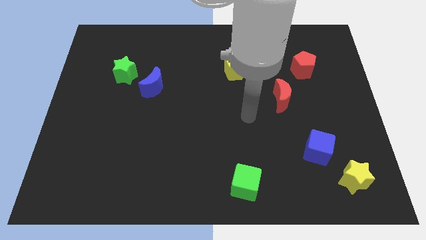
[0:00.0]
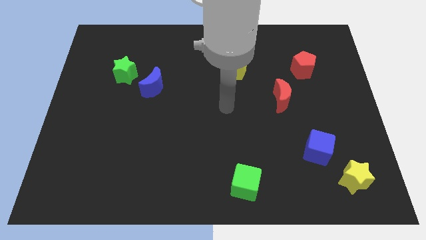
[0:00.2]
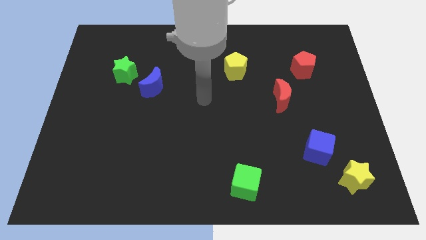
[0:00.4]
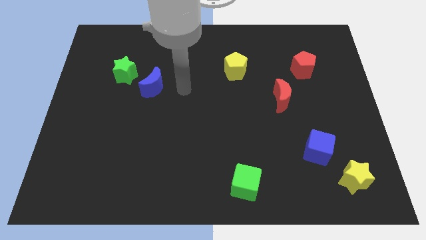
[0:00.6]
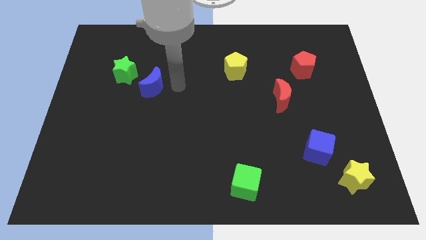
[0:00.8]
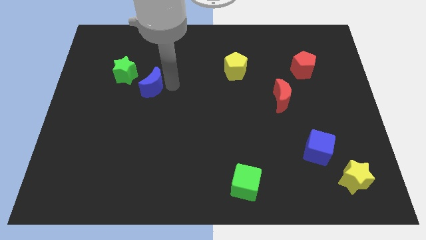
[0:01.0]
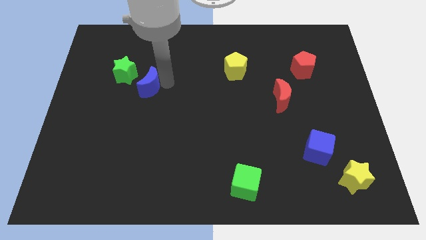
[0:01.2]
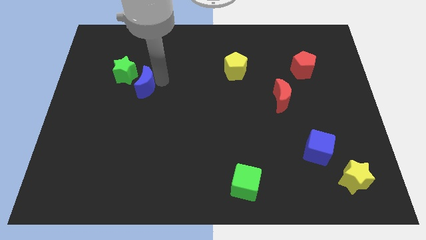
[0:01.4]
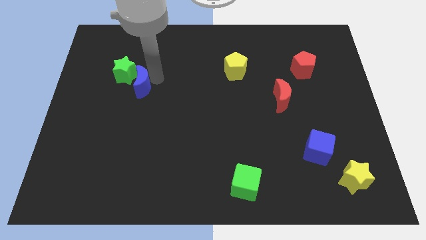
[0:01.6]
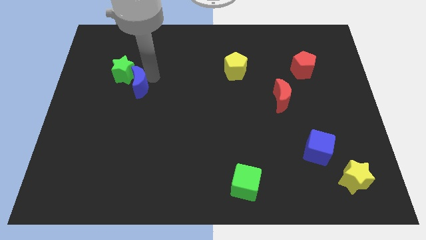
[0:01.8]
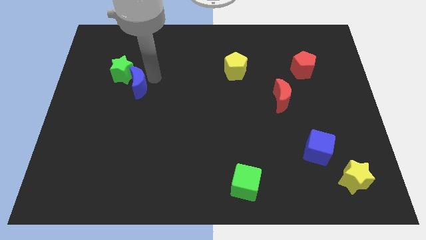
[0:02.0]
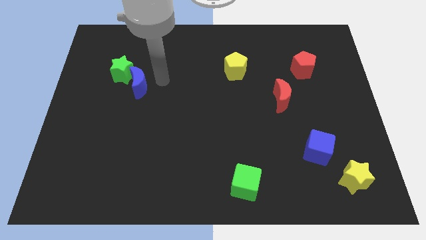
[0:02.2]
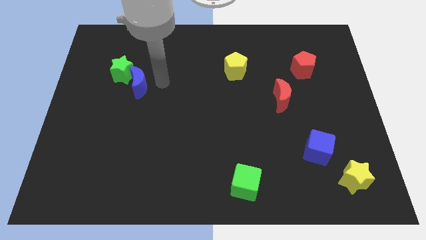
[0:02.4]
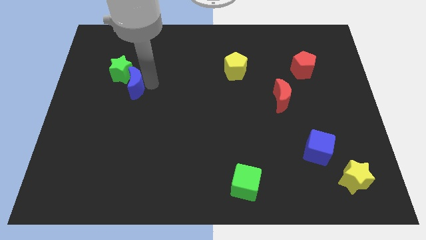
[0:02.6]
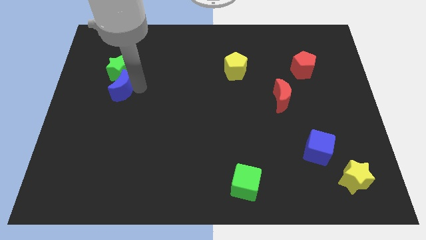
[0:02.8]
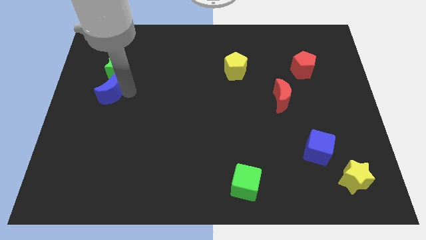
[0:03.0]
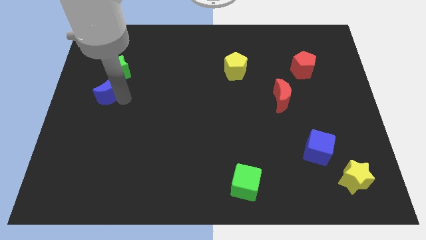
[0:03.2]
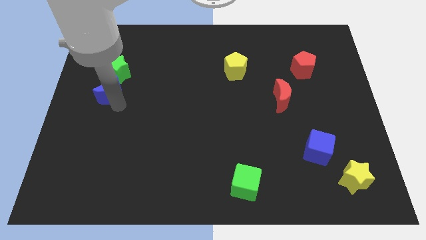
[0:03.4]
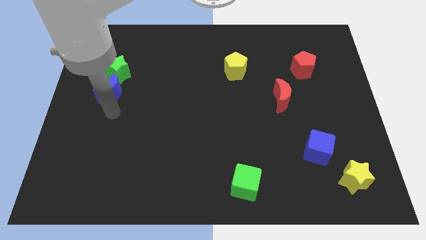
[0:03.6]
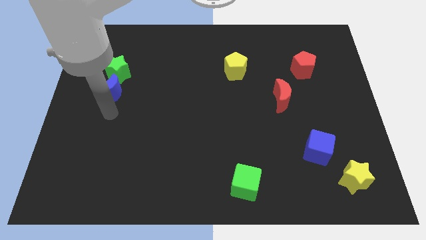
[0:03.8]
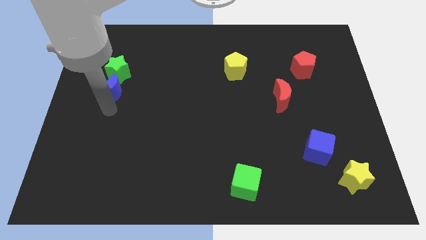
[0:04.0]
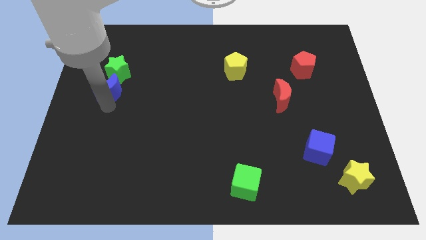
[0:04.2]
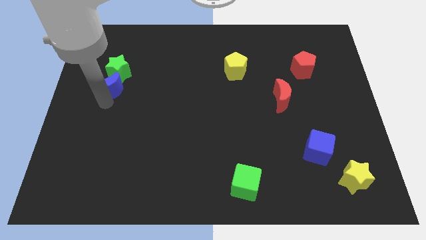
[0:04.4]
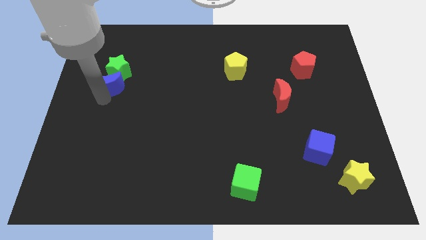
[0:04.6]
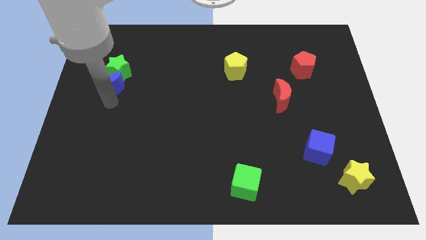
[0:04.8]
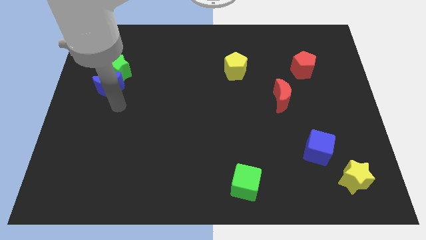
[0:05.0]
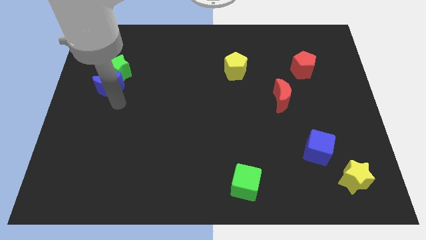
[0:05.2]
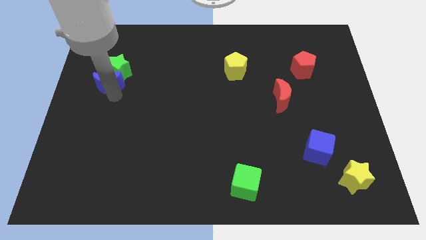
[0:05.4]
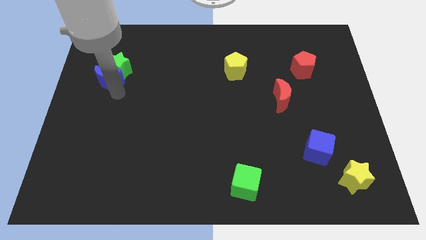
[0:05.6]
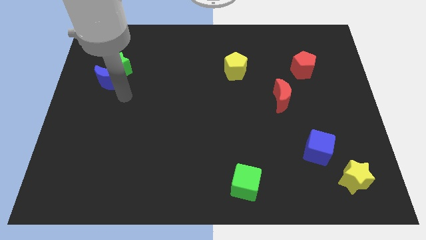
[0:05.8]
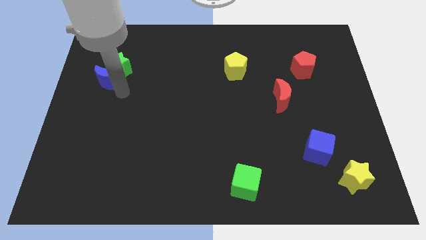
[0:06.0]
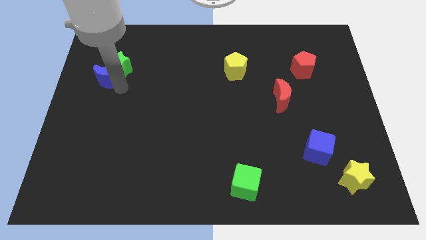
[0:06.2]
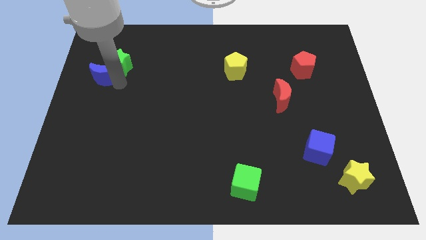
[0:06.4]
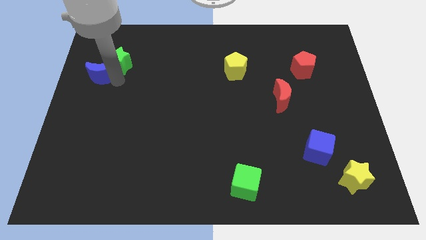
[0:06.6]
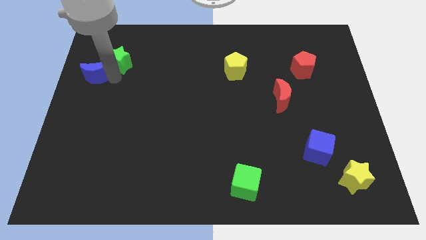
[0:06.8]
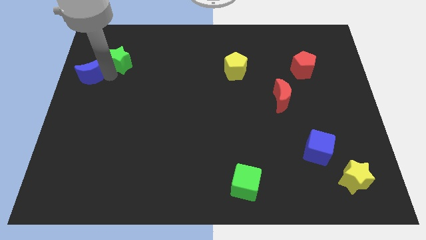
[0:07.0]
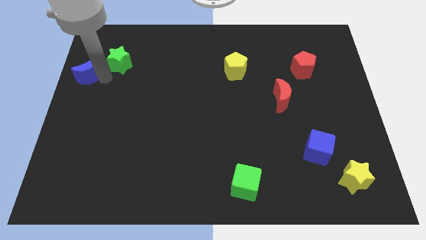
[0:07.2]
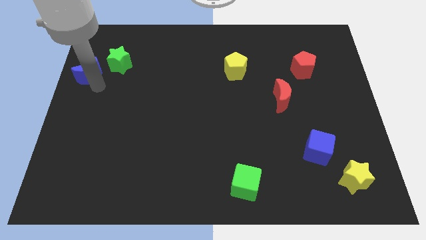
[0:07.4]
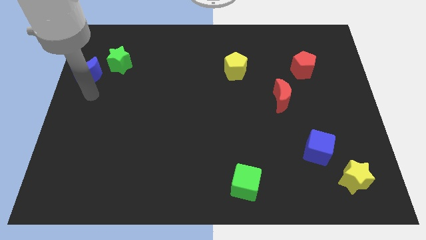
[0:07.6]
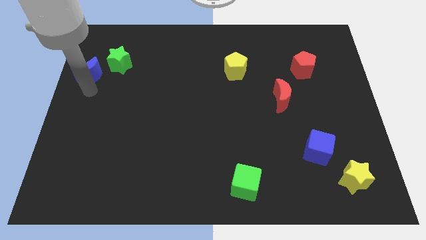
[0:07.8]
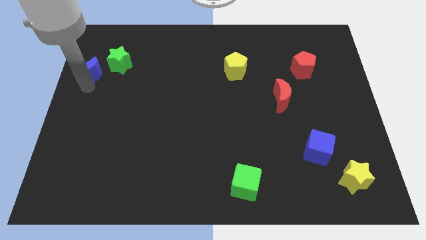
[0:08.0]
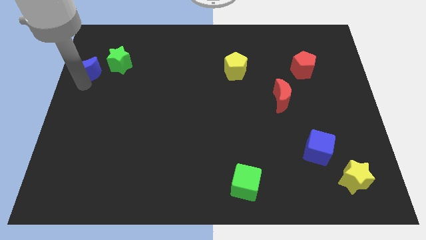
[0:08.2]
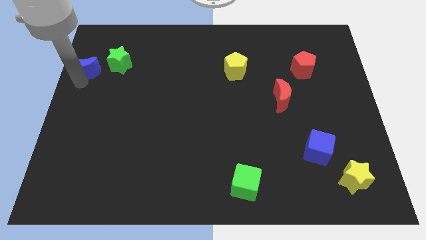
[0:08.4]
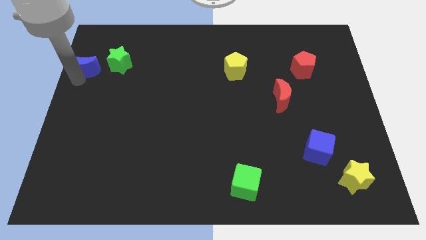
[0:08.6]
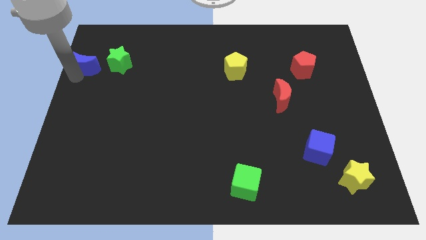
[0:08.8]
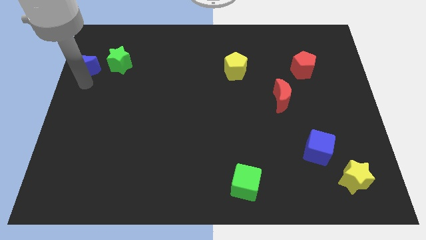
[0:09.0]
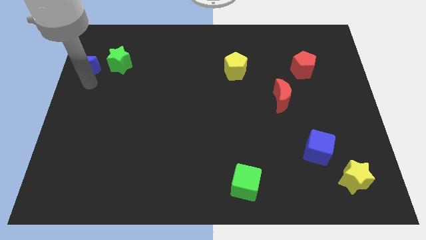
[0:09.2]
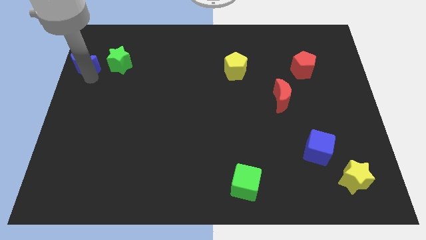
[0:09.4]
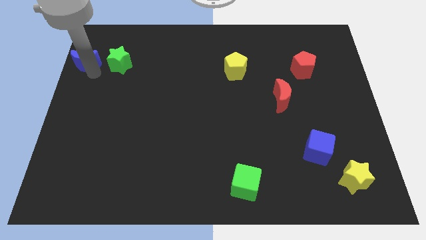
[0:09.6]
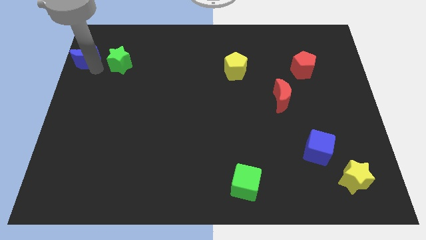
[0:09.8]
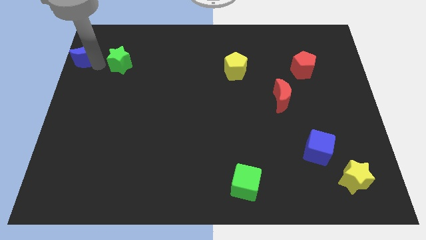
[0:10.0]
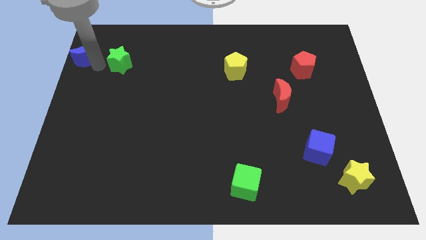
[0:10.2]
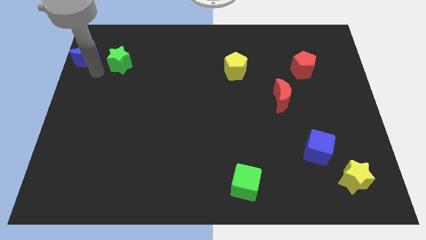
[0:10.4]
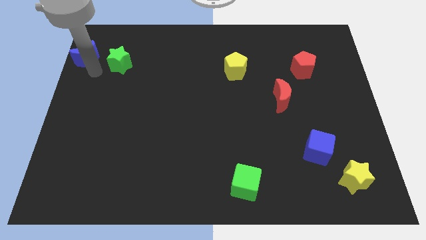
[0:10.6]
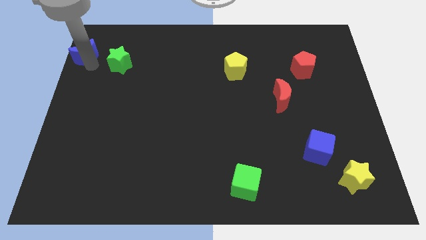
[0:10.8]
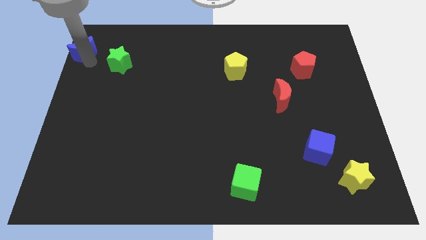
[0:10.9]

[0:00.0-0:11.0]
slide the blue moon to the upper left corner
